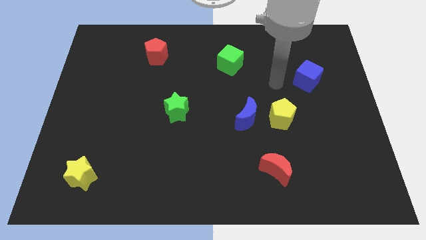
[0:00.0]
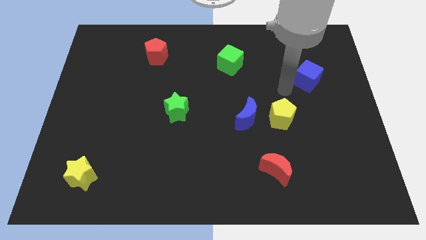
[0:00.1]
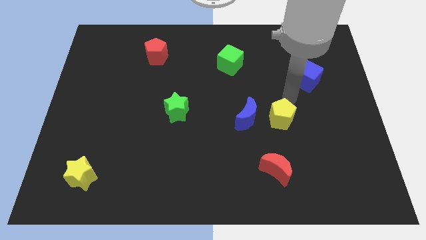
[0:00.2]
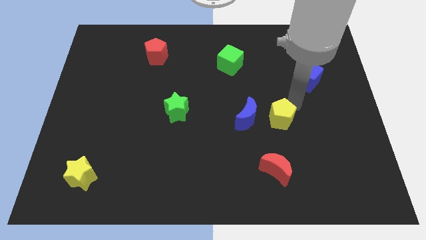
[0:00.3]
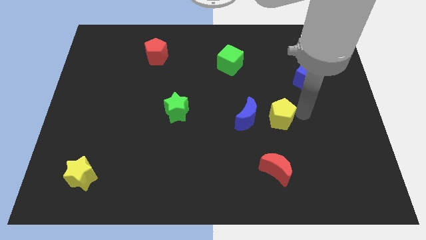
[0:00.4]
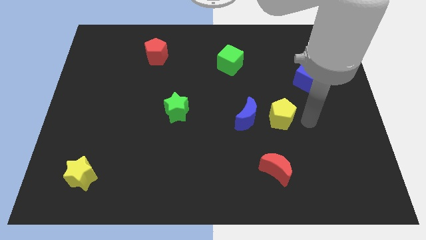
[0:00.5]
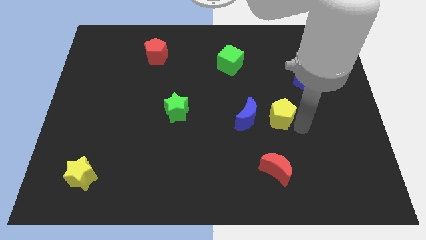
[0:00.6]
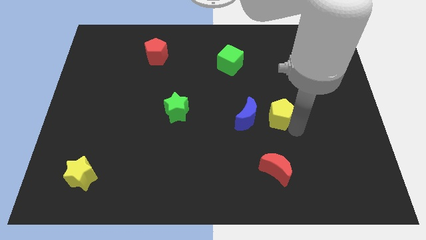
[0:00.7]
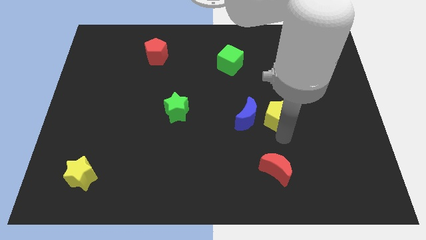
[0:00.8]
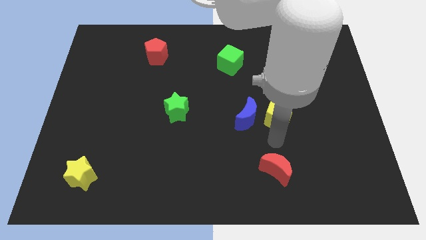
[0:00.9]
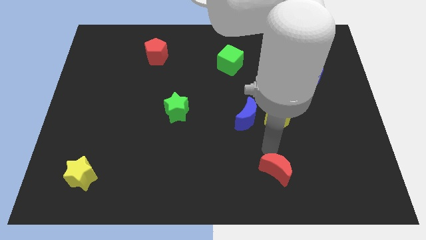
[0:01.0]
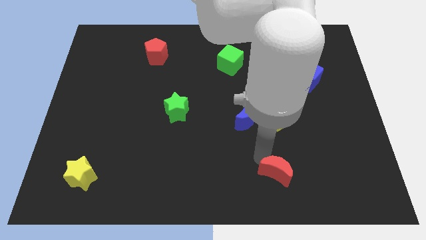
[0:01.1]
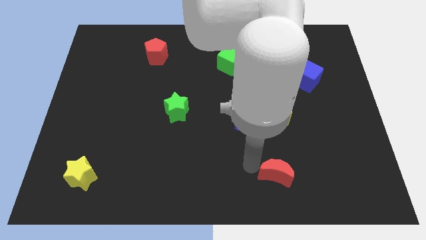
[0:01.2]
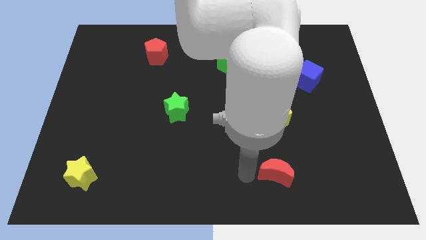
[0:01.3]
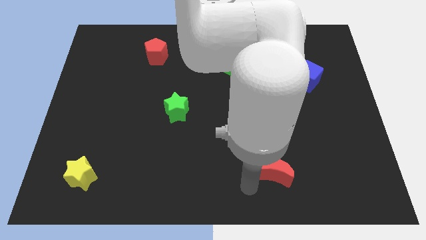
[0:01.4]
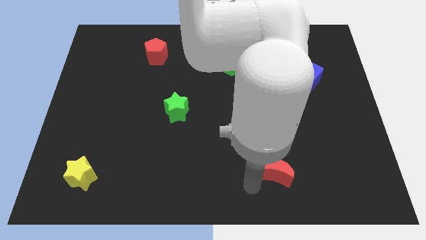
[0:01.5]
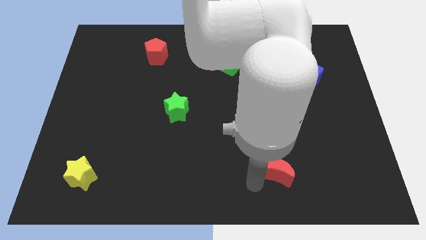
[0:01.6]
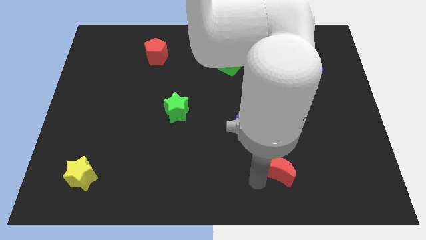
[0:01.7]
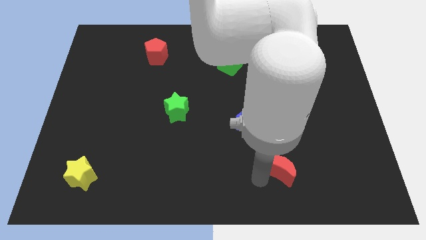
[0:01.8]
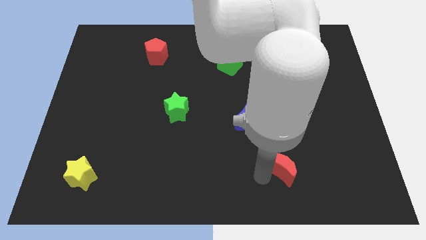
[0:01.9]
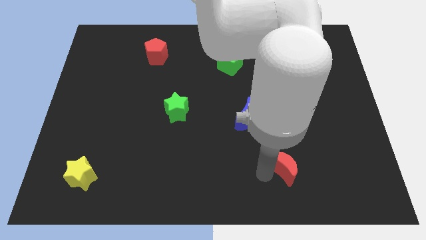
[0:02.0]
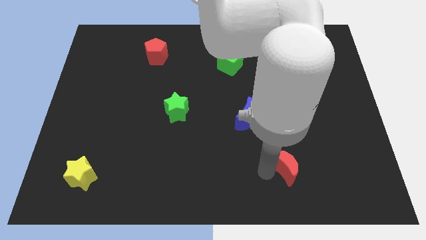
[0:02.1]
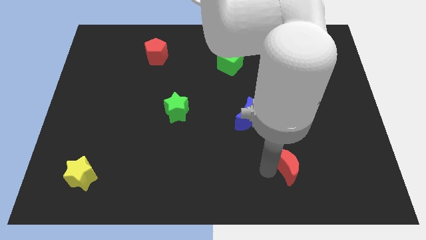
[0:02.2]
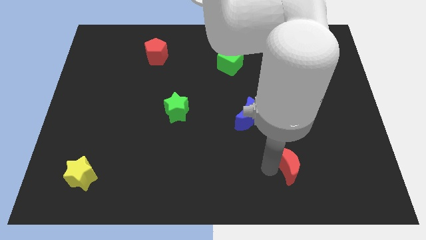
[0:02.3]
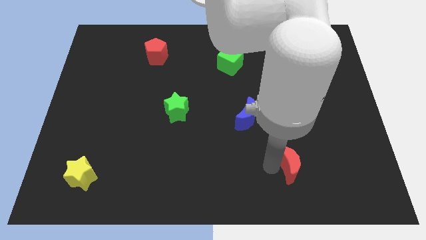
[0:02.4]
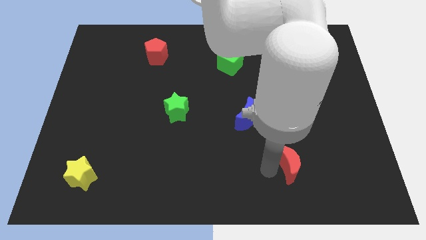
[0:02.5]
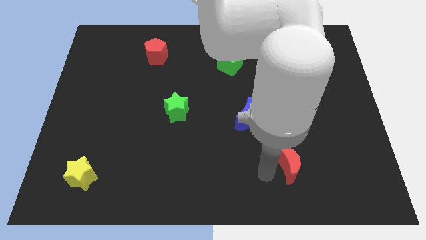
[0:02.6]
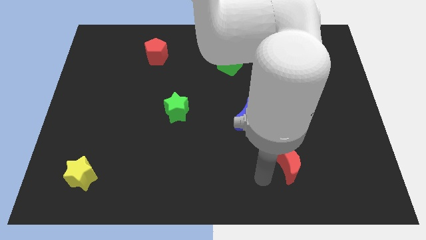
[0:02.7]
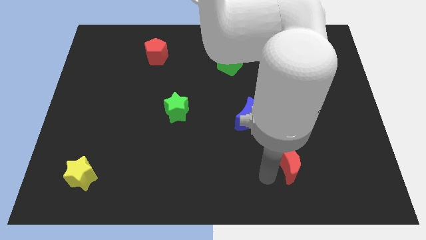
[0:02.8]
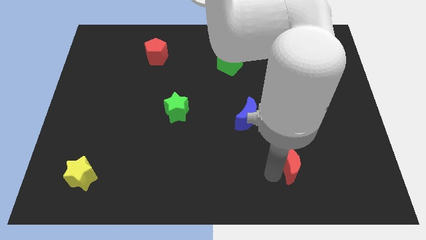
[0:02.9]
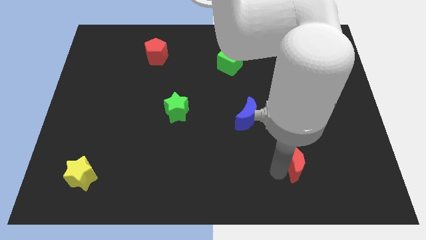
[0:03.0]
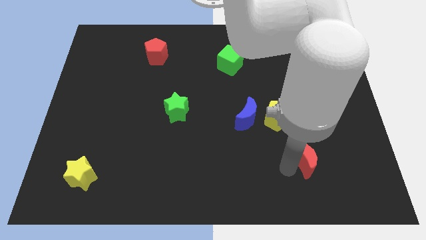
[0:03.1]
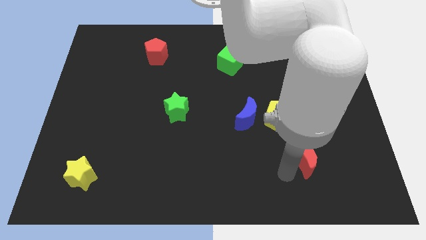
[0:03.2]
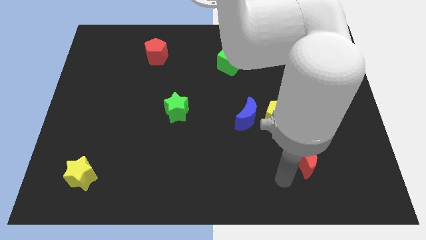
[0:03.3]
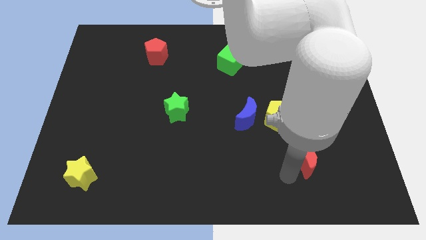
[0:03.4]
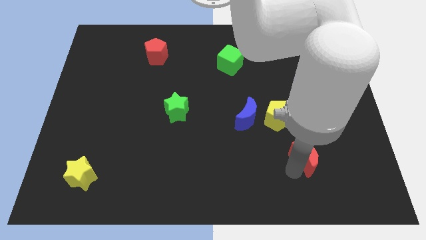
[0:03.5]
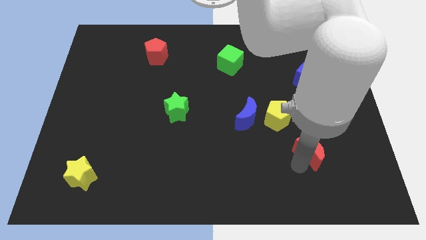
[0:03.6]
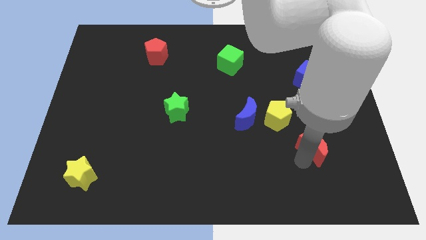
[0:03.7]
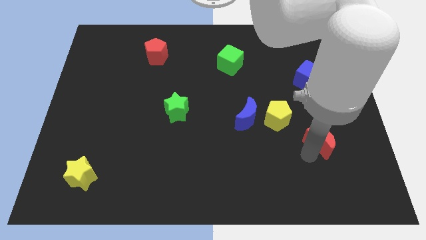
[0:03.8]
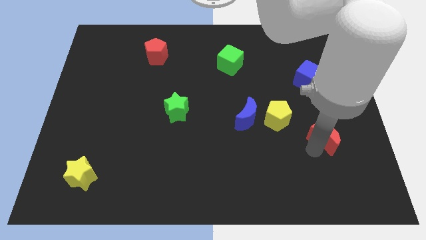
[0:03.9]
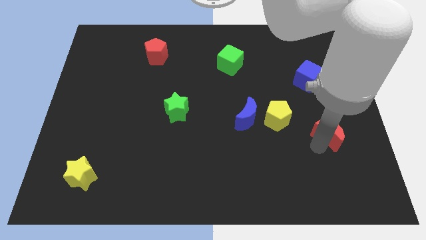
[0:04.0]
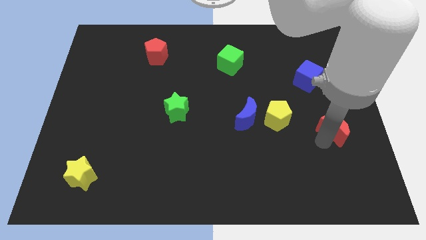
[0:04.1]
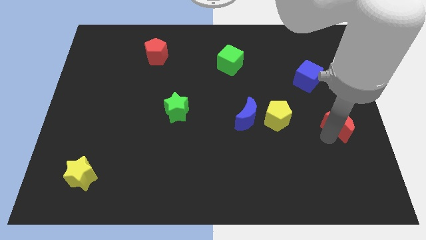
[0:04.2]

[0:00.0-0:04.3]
put the red moon to the right side

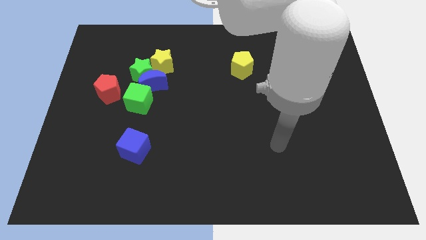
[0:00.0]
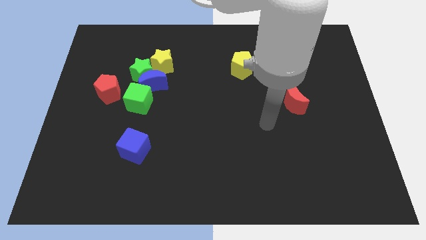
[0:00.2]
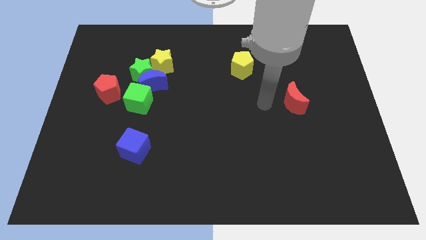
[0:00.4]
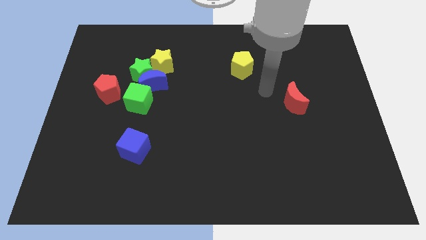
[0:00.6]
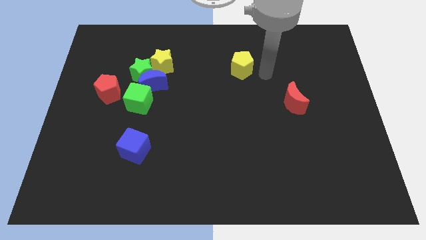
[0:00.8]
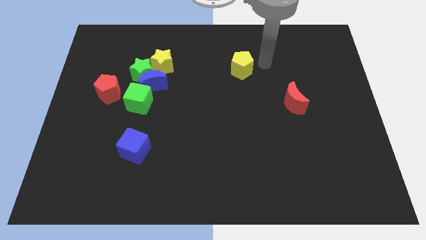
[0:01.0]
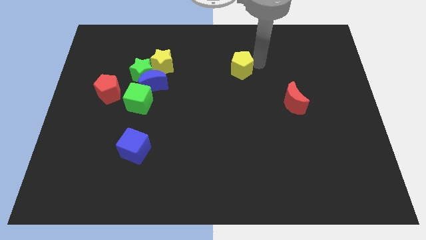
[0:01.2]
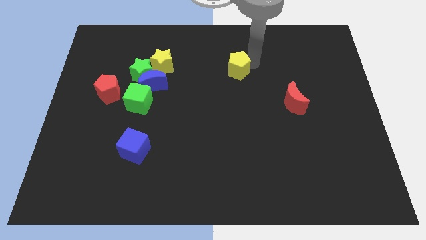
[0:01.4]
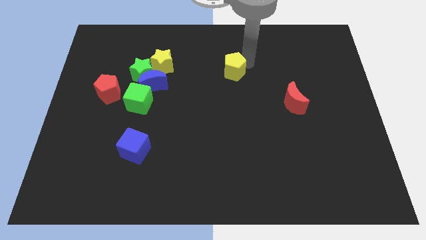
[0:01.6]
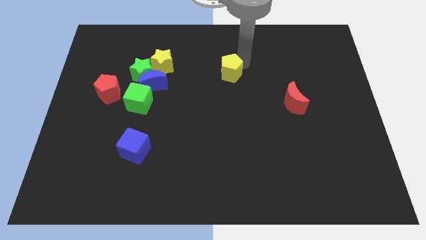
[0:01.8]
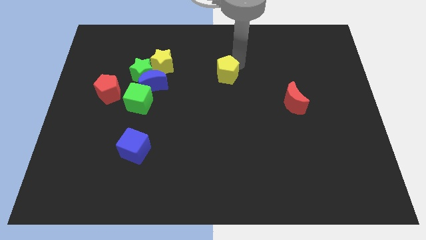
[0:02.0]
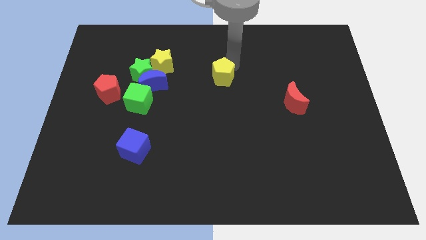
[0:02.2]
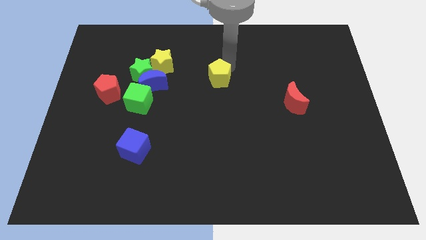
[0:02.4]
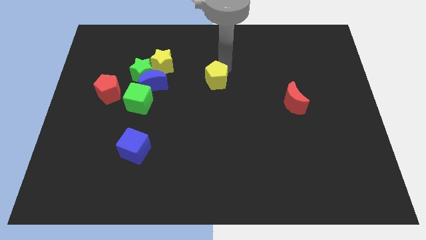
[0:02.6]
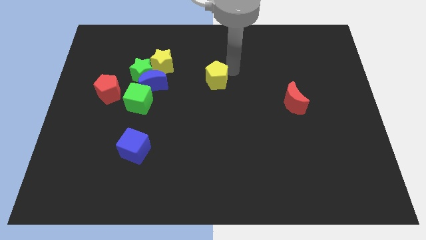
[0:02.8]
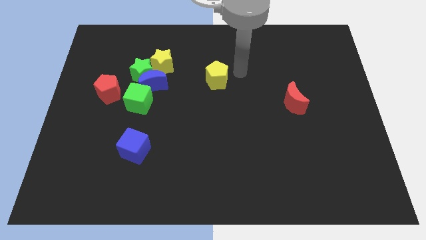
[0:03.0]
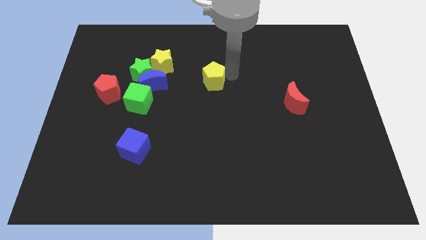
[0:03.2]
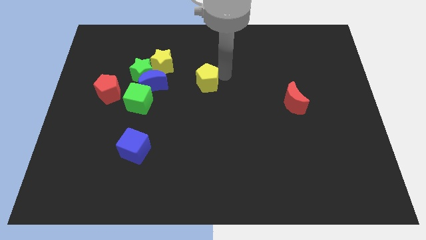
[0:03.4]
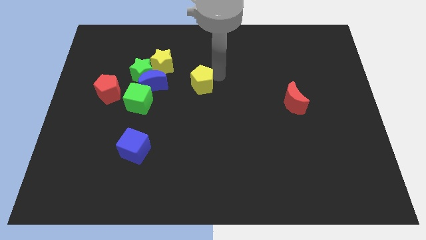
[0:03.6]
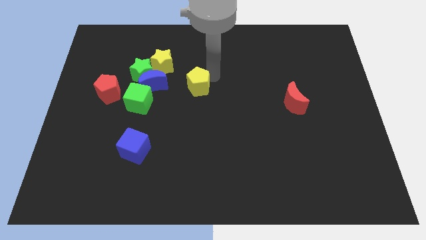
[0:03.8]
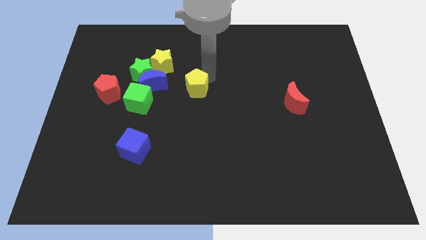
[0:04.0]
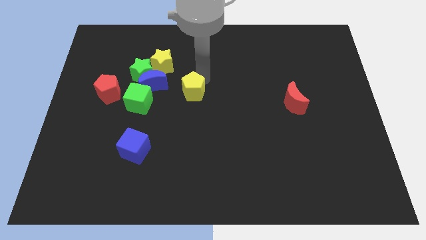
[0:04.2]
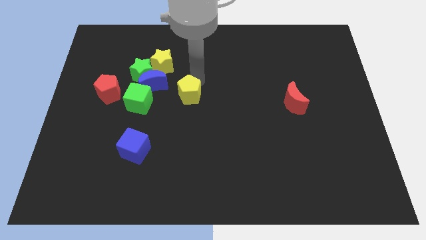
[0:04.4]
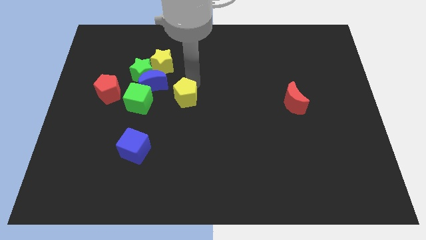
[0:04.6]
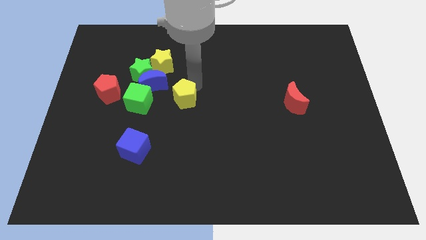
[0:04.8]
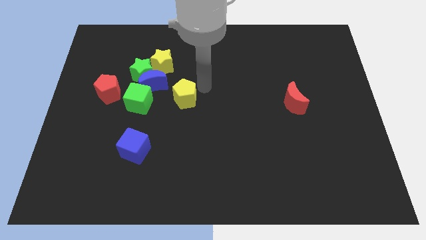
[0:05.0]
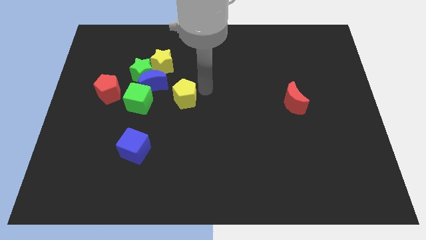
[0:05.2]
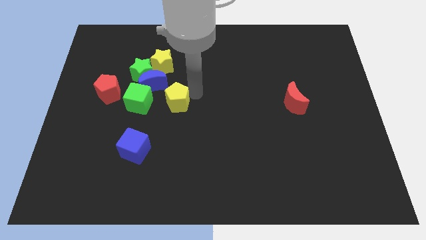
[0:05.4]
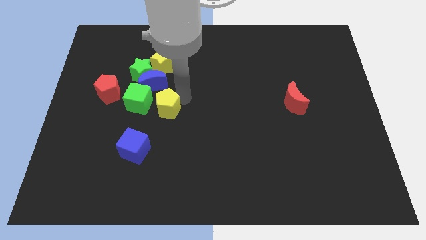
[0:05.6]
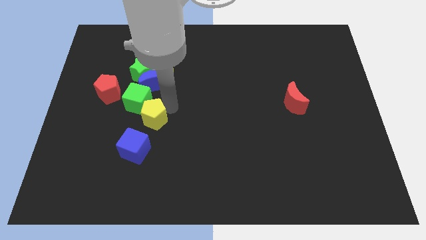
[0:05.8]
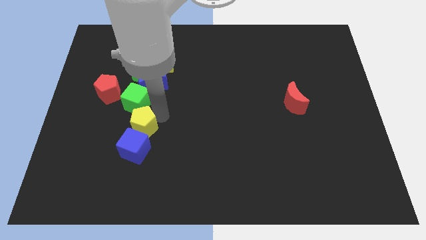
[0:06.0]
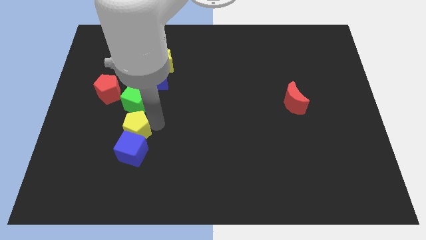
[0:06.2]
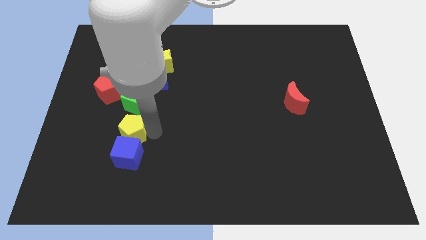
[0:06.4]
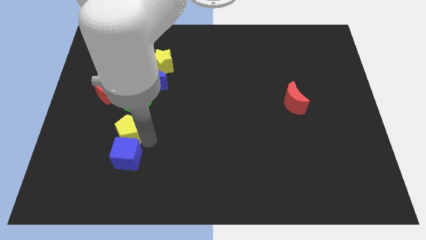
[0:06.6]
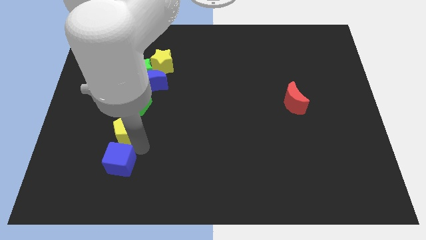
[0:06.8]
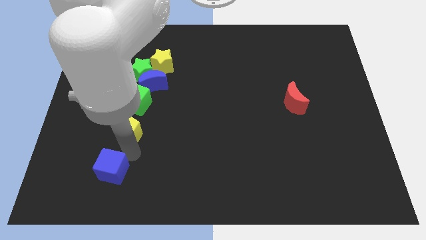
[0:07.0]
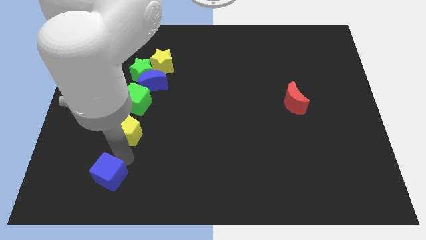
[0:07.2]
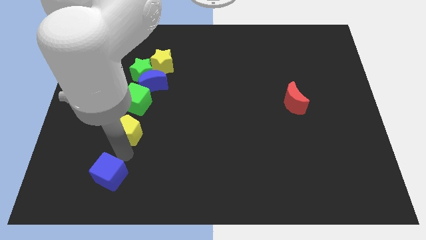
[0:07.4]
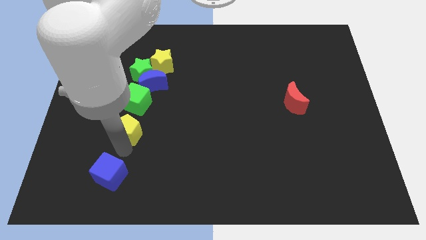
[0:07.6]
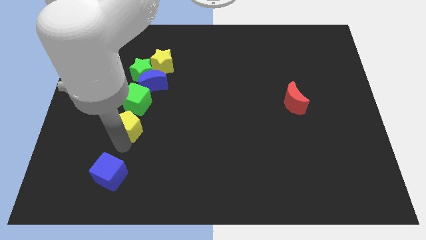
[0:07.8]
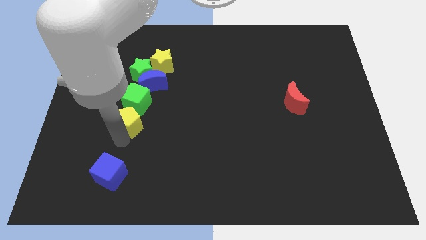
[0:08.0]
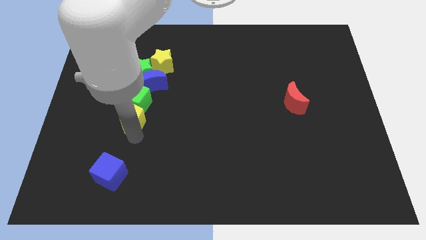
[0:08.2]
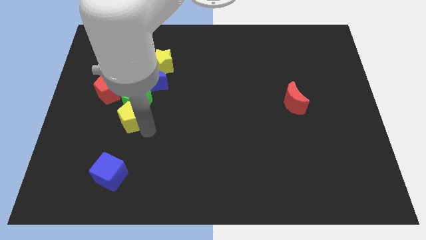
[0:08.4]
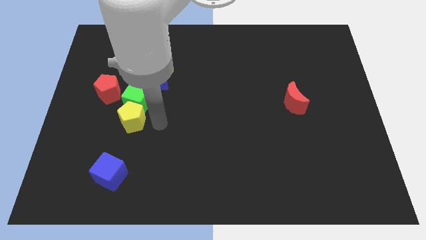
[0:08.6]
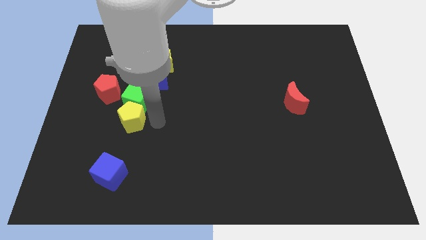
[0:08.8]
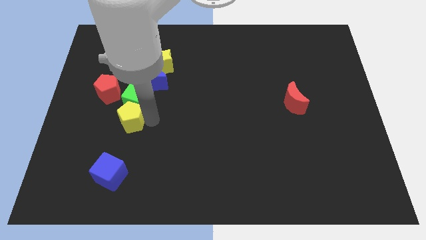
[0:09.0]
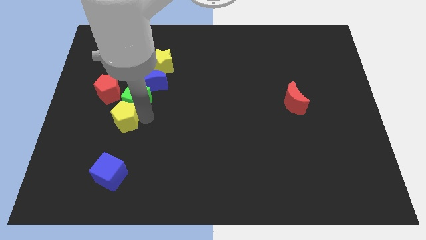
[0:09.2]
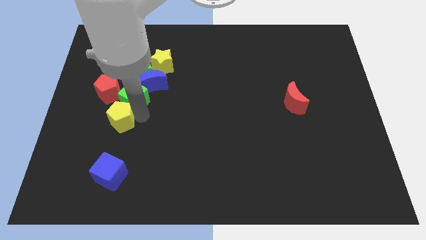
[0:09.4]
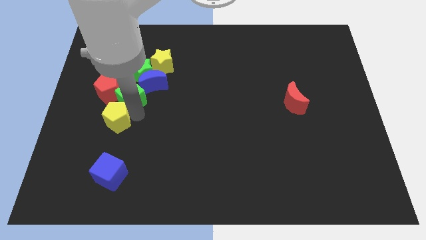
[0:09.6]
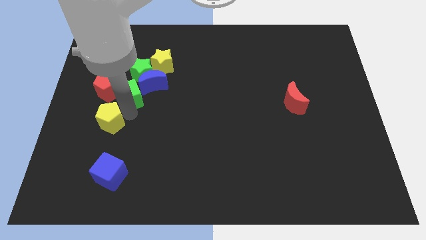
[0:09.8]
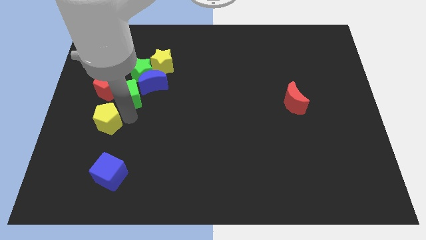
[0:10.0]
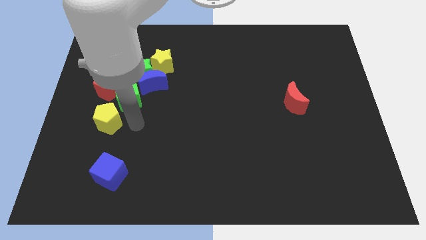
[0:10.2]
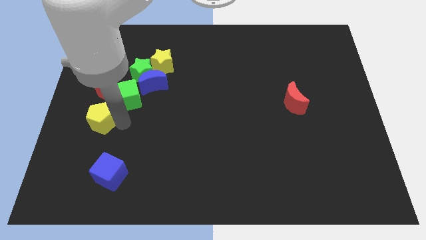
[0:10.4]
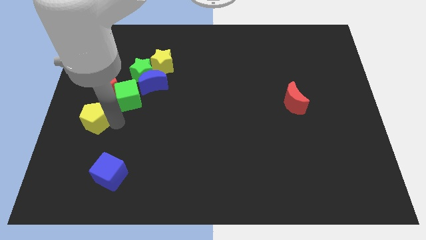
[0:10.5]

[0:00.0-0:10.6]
put the yellow pentagon to the left side of the board
